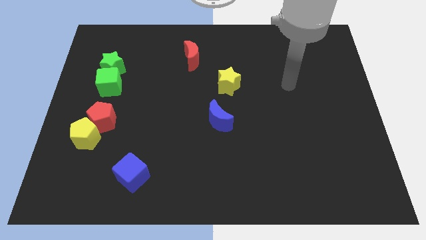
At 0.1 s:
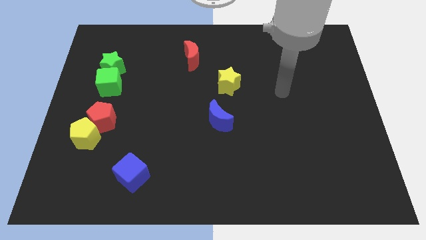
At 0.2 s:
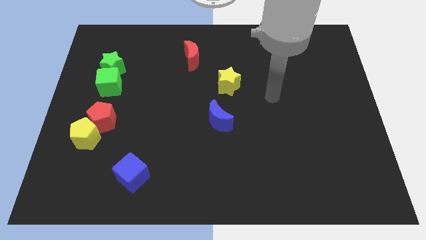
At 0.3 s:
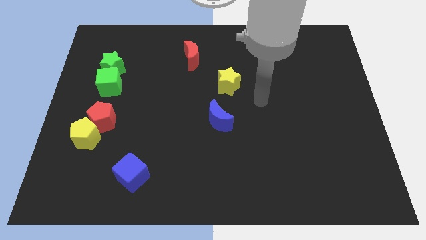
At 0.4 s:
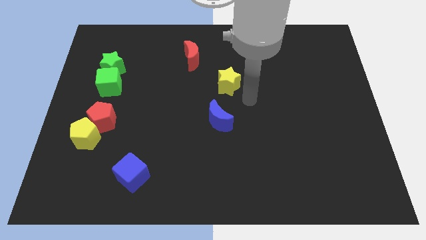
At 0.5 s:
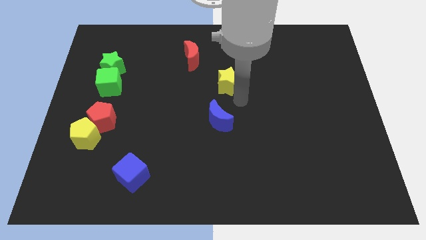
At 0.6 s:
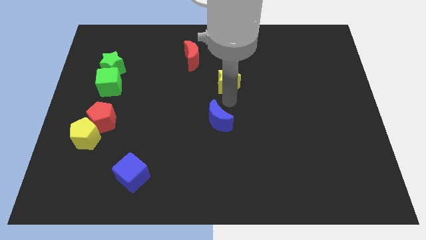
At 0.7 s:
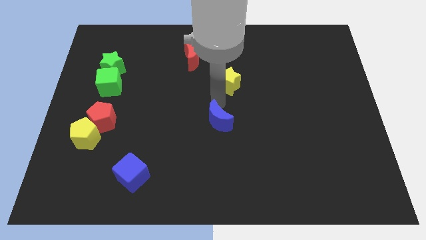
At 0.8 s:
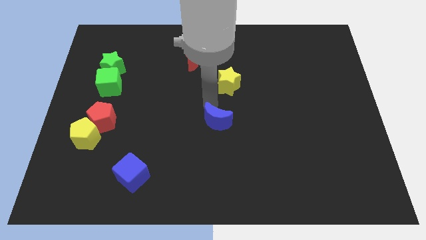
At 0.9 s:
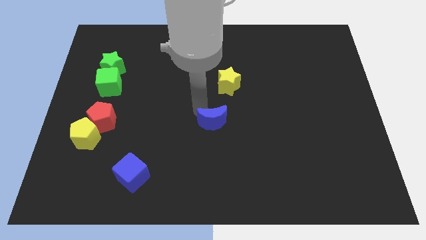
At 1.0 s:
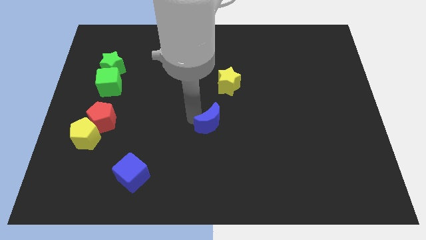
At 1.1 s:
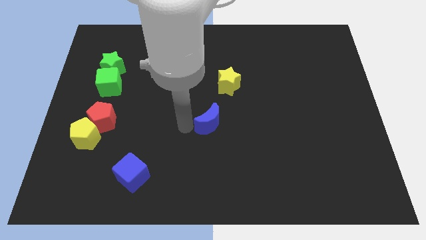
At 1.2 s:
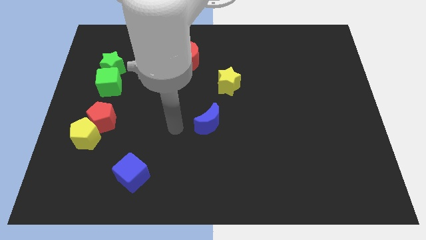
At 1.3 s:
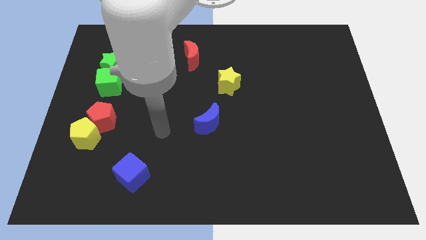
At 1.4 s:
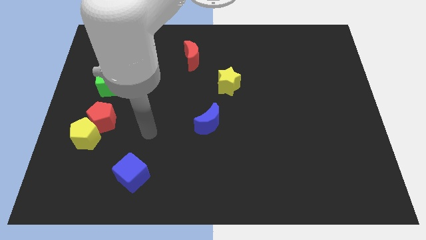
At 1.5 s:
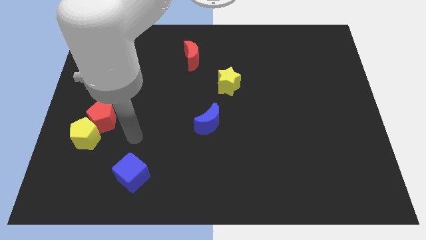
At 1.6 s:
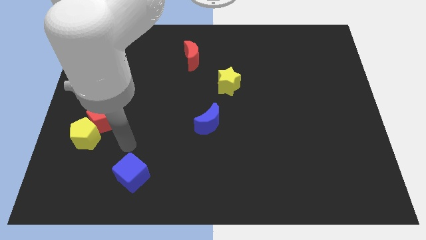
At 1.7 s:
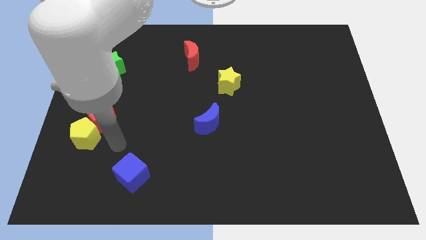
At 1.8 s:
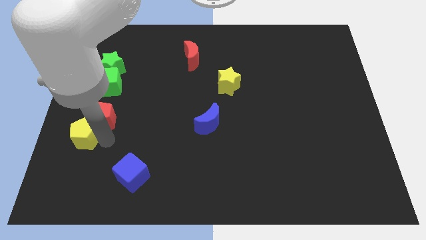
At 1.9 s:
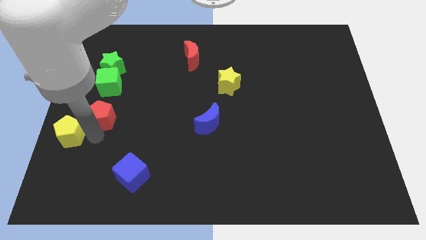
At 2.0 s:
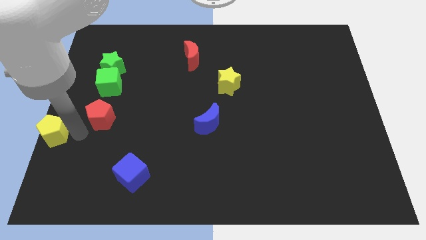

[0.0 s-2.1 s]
separate the red pentagon from the yellow pentagon

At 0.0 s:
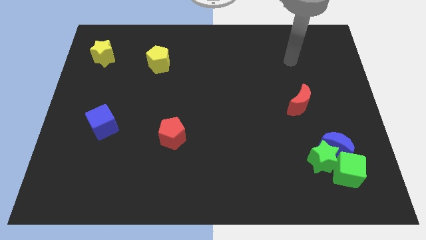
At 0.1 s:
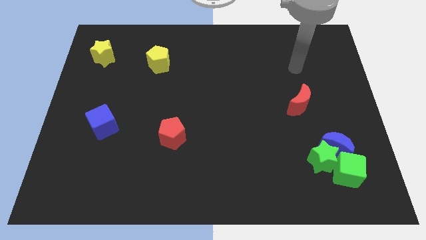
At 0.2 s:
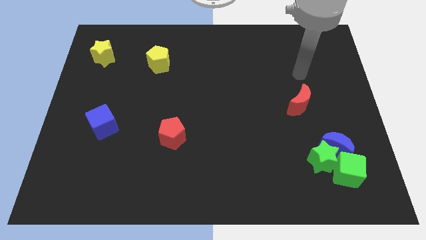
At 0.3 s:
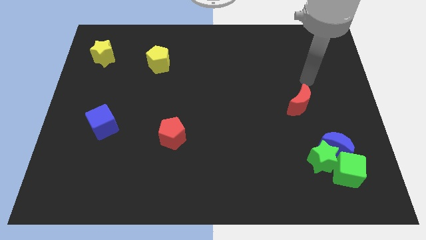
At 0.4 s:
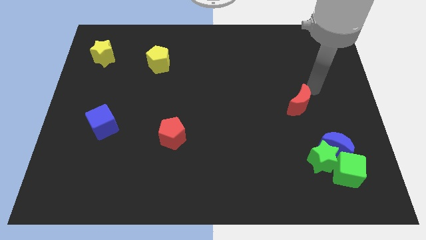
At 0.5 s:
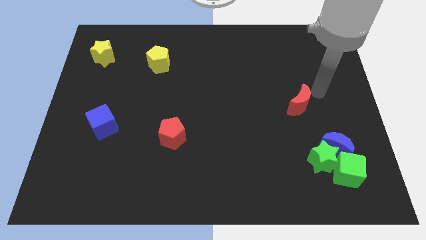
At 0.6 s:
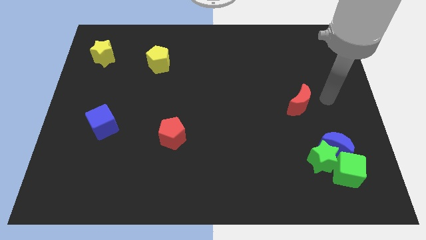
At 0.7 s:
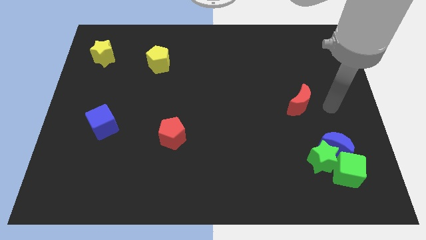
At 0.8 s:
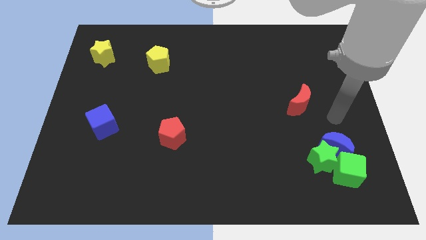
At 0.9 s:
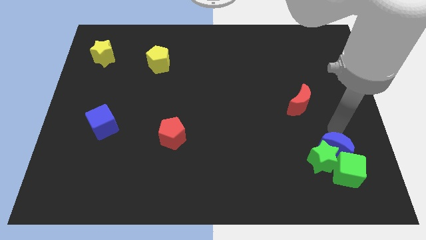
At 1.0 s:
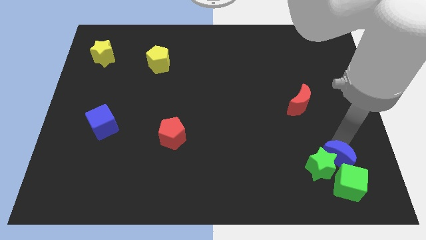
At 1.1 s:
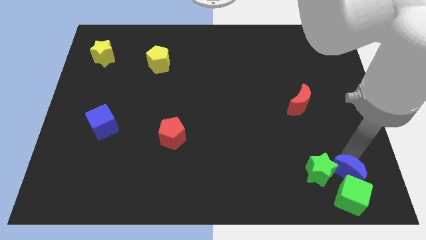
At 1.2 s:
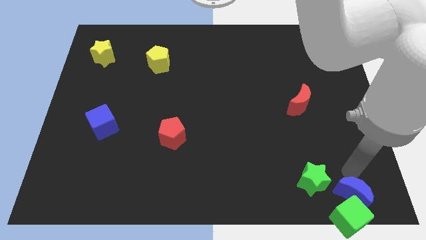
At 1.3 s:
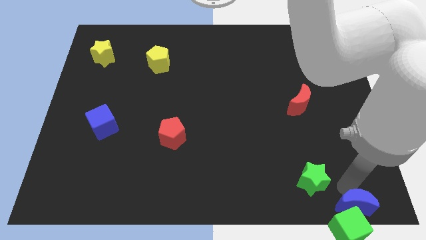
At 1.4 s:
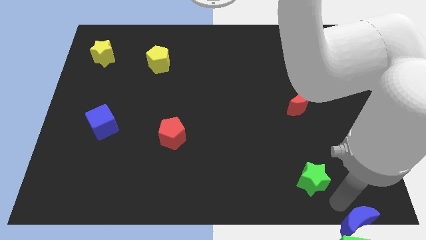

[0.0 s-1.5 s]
move the green star away from the blue moon and green cube

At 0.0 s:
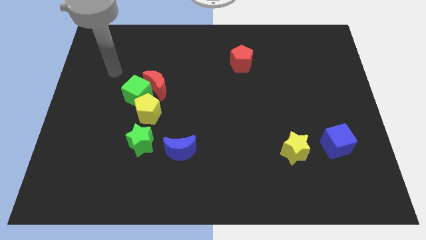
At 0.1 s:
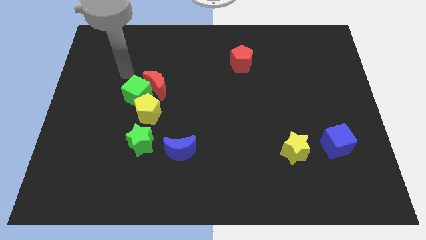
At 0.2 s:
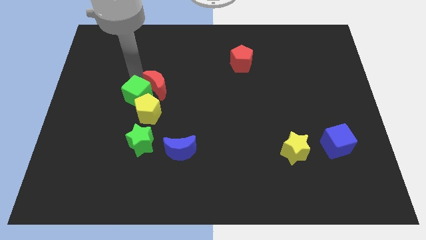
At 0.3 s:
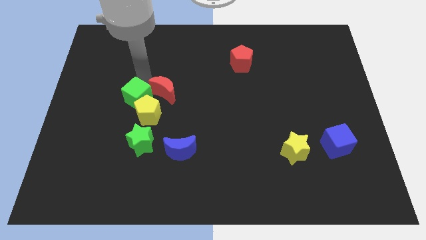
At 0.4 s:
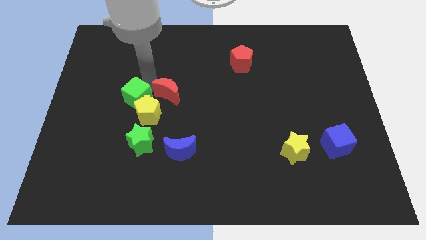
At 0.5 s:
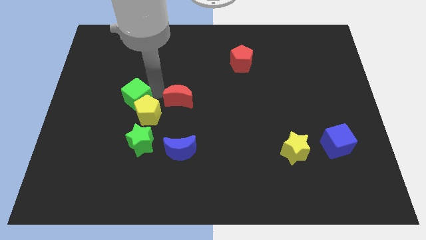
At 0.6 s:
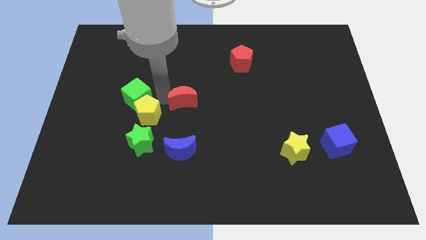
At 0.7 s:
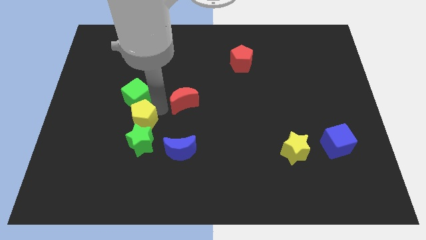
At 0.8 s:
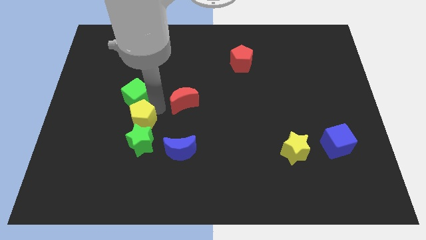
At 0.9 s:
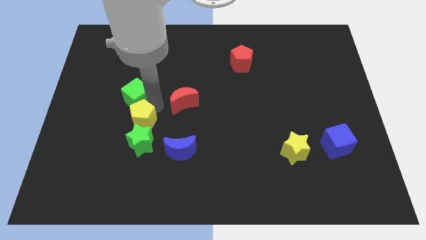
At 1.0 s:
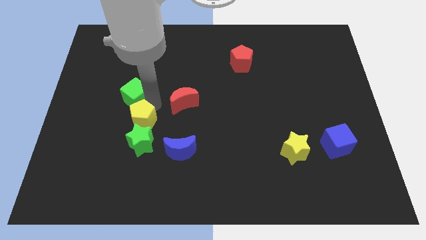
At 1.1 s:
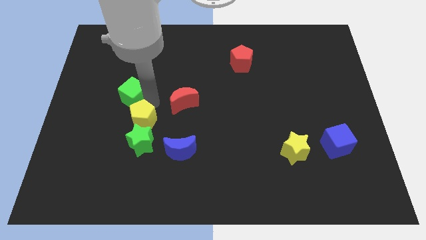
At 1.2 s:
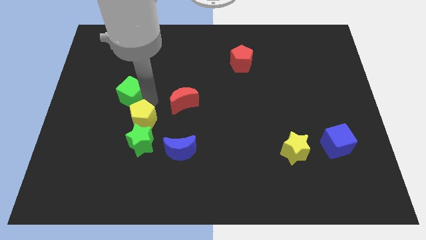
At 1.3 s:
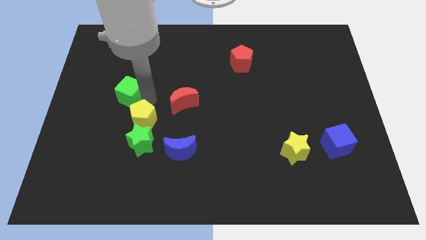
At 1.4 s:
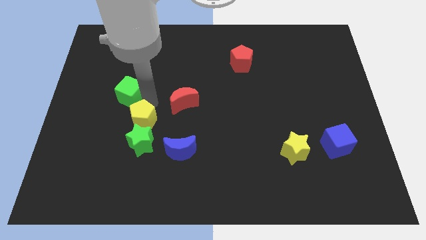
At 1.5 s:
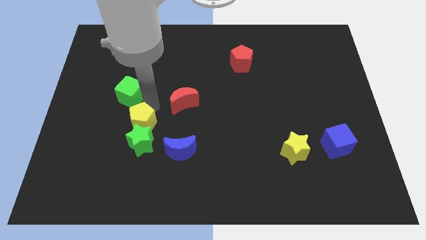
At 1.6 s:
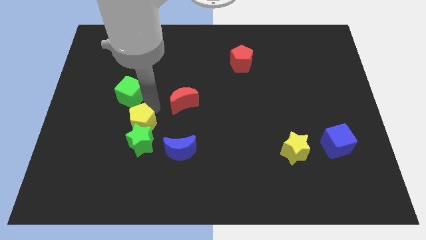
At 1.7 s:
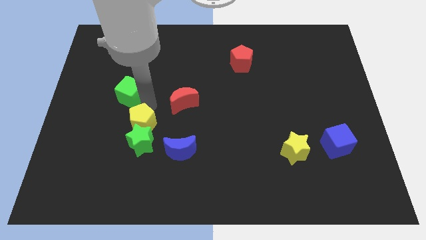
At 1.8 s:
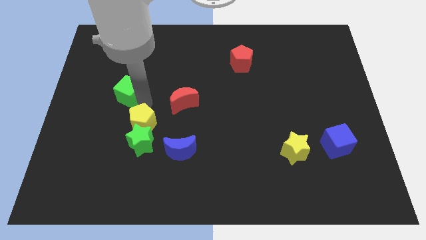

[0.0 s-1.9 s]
separate the green cube from the red moon and yellow pentagon

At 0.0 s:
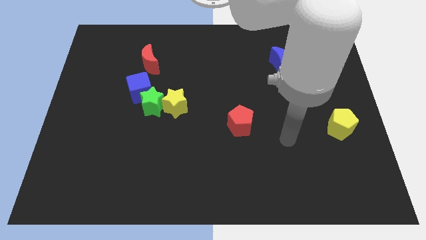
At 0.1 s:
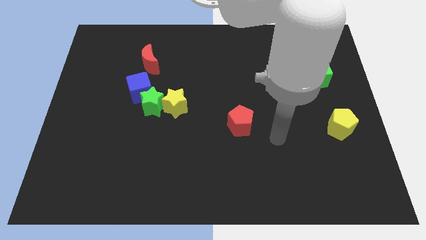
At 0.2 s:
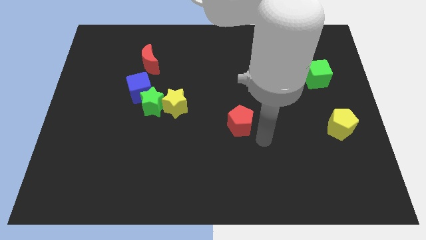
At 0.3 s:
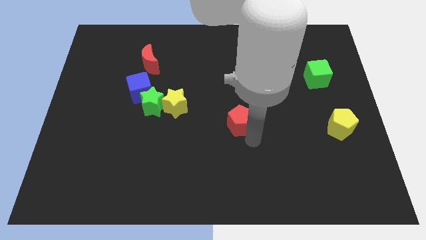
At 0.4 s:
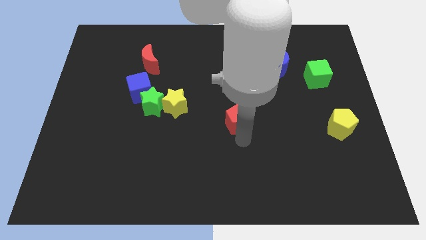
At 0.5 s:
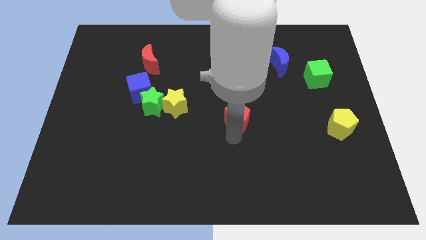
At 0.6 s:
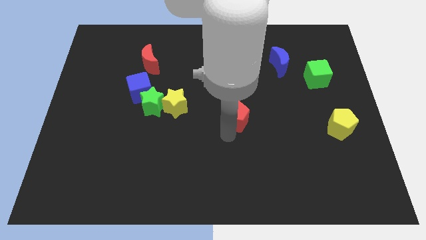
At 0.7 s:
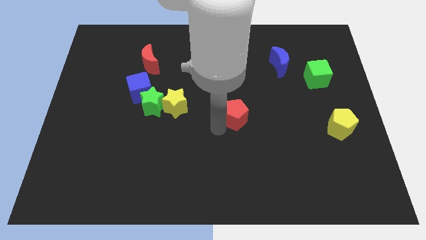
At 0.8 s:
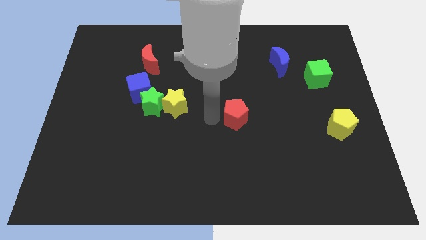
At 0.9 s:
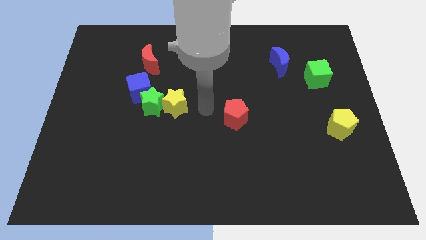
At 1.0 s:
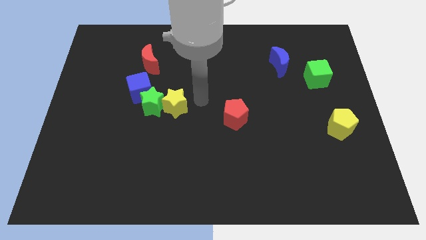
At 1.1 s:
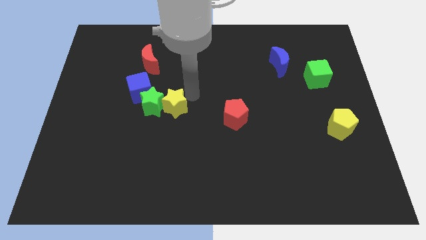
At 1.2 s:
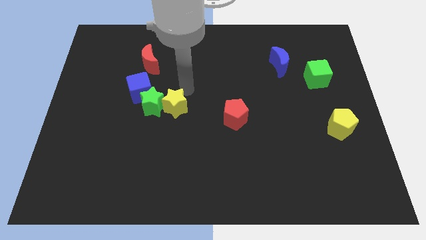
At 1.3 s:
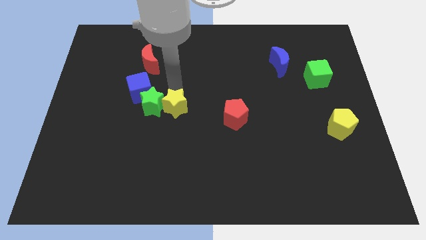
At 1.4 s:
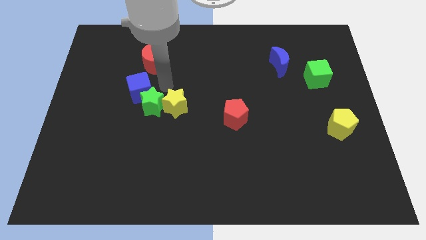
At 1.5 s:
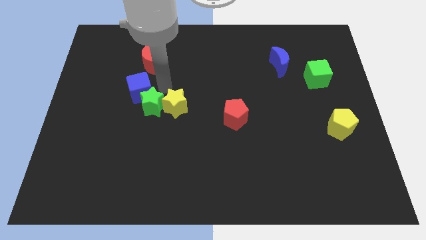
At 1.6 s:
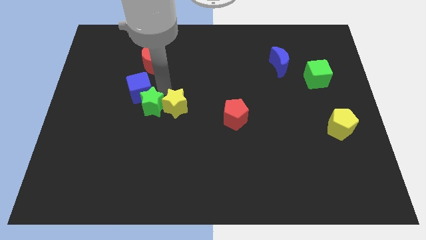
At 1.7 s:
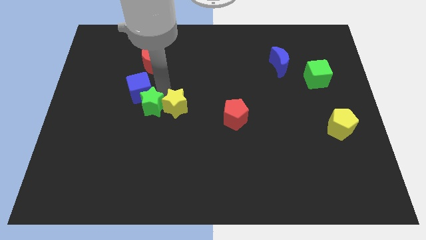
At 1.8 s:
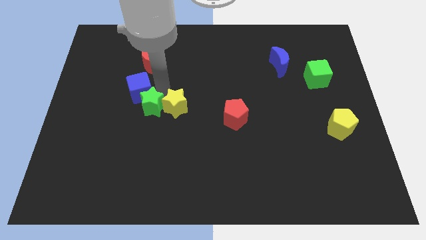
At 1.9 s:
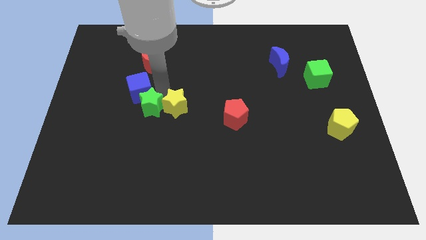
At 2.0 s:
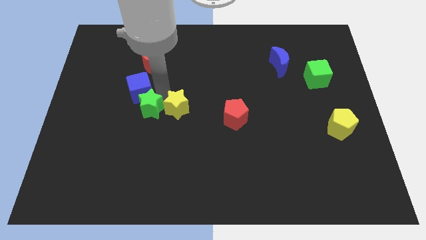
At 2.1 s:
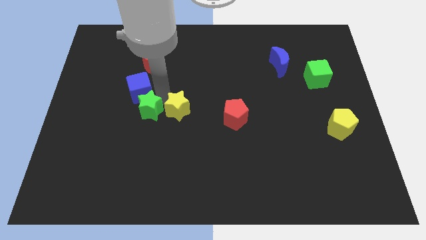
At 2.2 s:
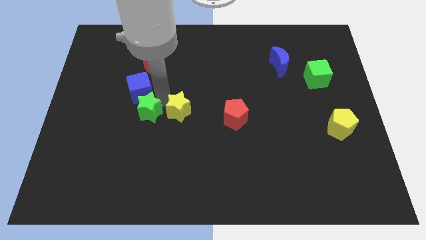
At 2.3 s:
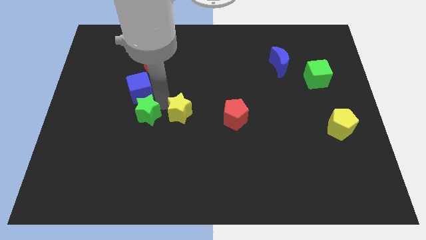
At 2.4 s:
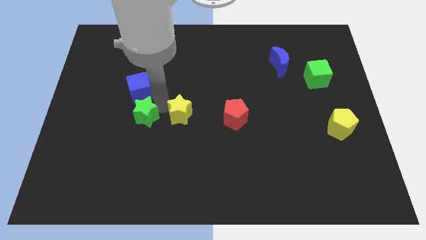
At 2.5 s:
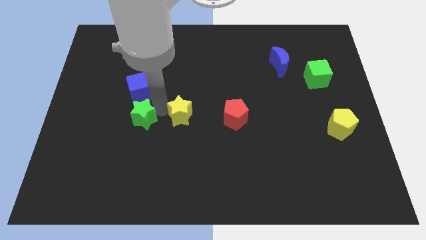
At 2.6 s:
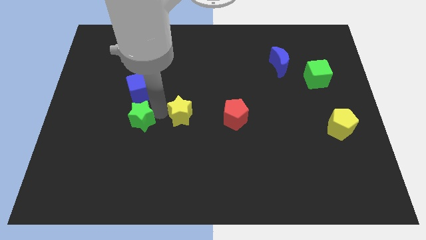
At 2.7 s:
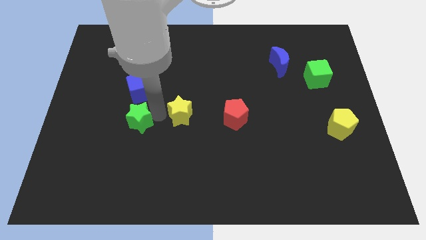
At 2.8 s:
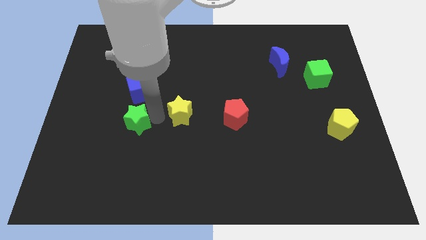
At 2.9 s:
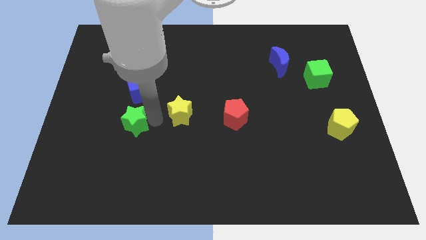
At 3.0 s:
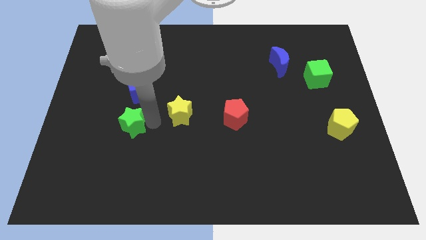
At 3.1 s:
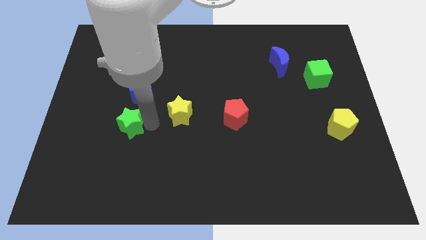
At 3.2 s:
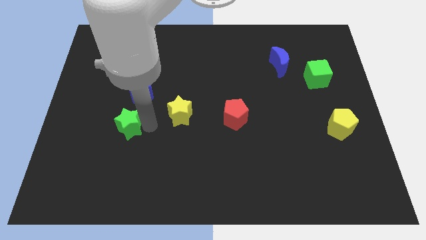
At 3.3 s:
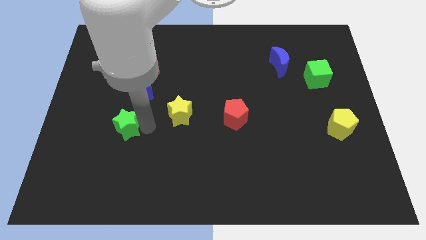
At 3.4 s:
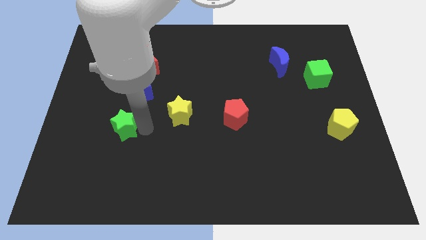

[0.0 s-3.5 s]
pull the green star apart from the yellow star and blue cube

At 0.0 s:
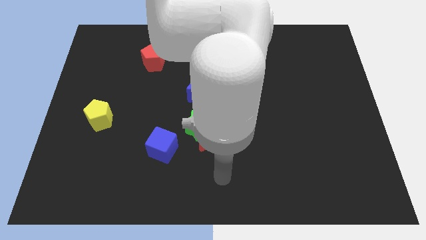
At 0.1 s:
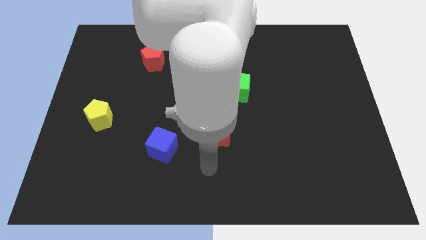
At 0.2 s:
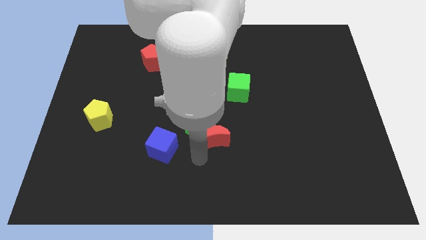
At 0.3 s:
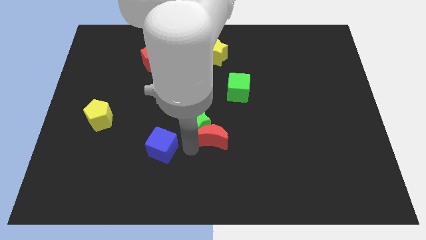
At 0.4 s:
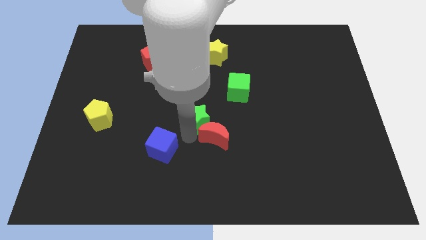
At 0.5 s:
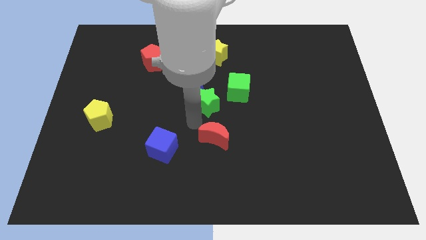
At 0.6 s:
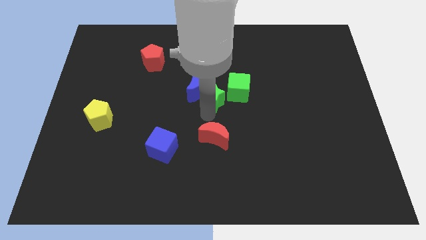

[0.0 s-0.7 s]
pull the red moon apart from the green star
